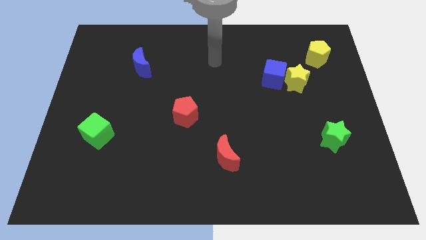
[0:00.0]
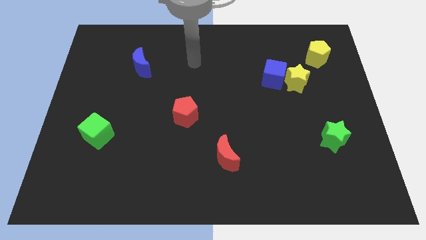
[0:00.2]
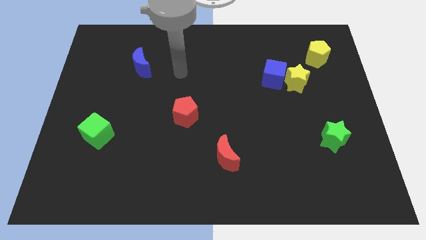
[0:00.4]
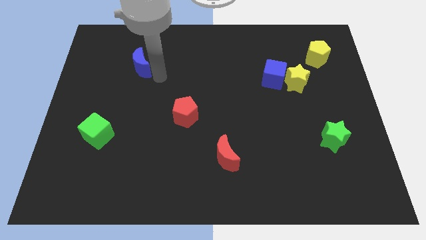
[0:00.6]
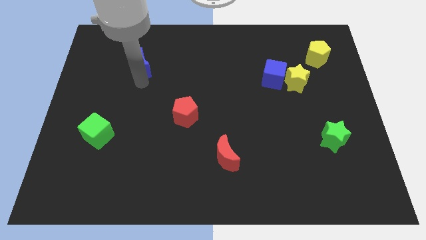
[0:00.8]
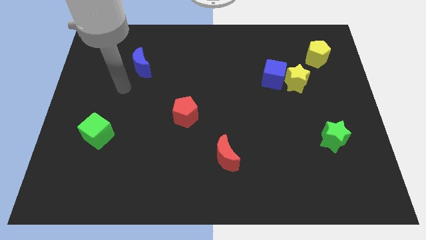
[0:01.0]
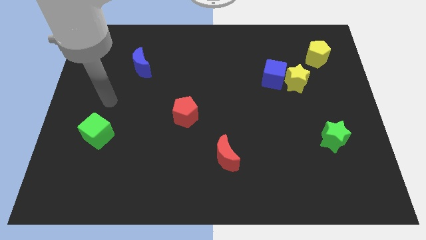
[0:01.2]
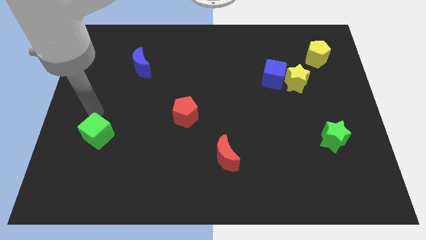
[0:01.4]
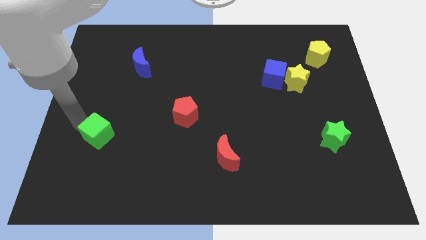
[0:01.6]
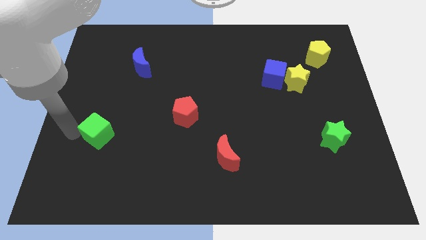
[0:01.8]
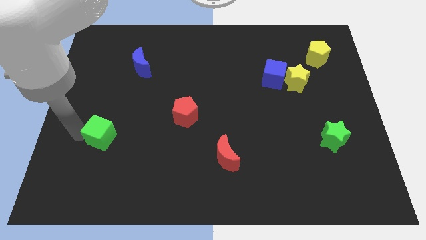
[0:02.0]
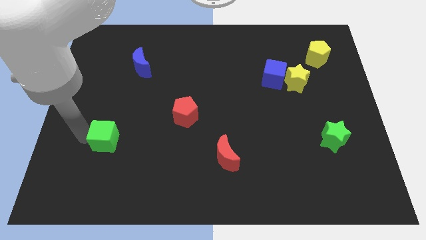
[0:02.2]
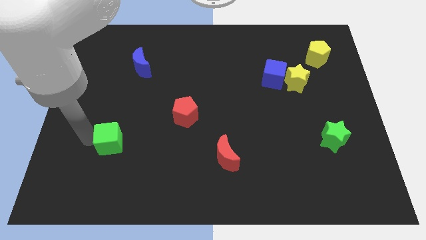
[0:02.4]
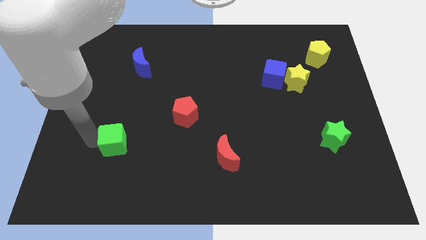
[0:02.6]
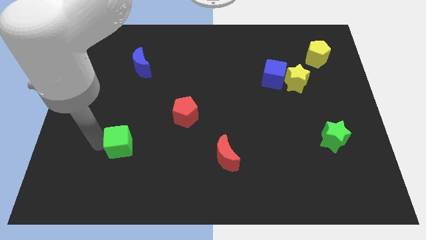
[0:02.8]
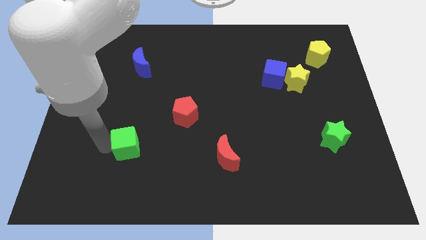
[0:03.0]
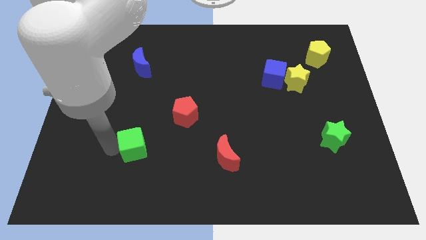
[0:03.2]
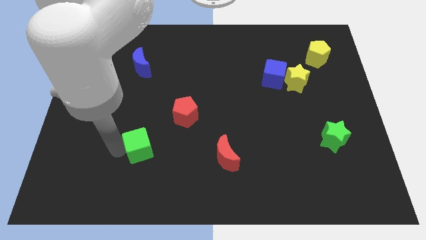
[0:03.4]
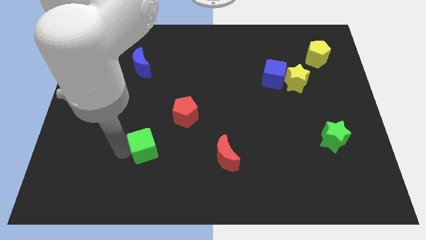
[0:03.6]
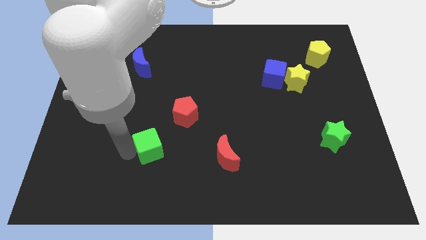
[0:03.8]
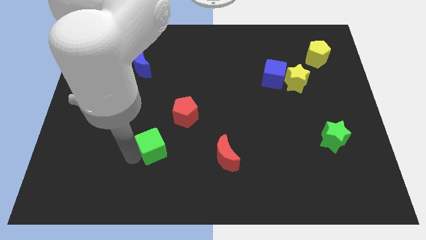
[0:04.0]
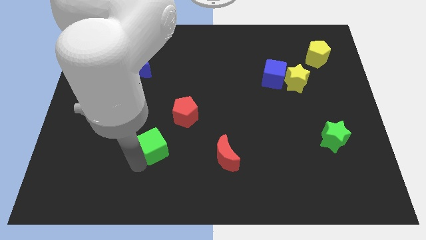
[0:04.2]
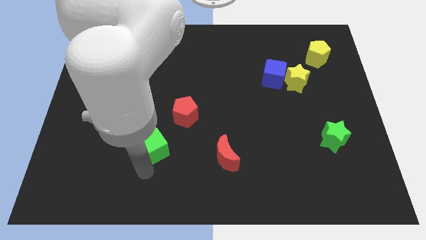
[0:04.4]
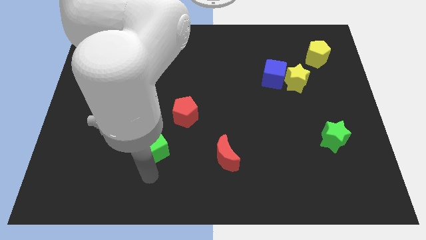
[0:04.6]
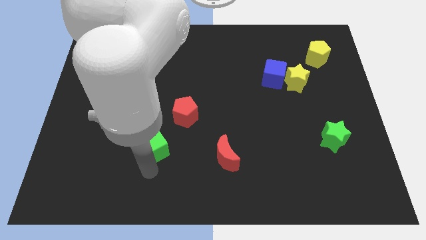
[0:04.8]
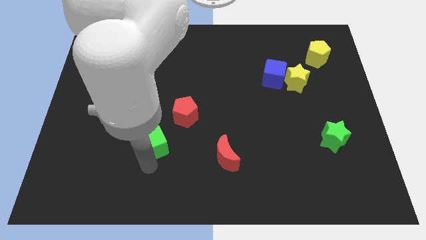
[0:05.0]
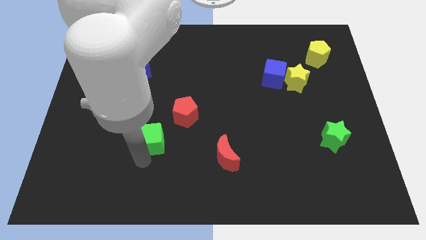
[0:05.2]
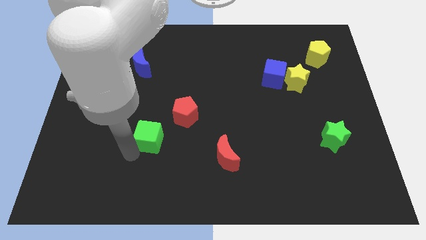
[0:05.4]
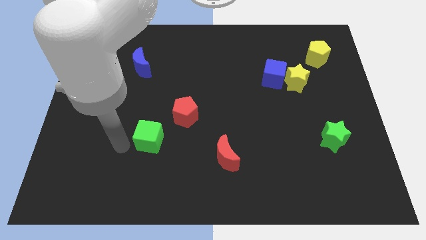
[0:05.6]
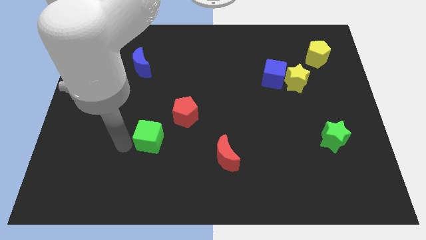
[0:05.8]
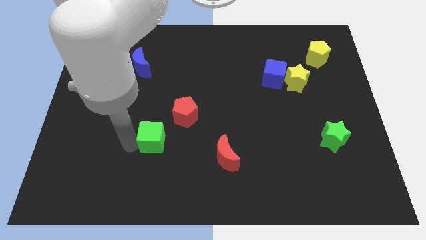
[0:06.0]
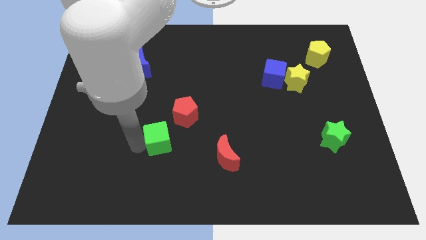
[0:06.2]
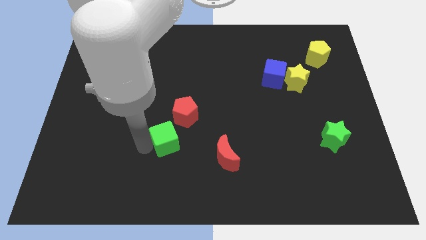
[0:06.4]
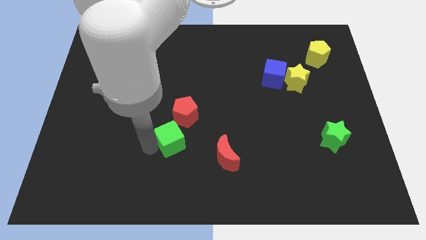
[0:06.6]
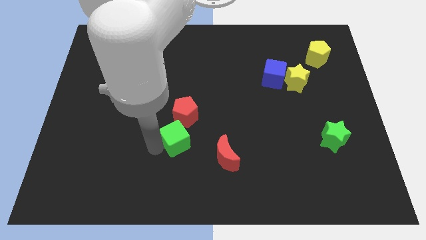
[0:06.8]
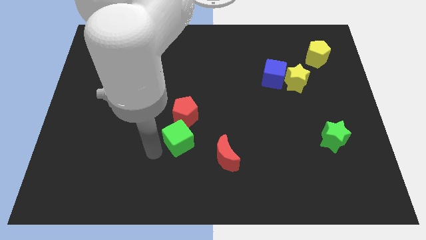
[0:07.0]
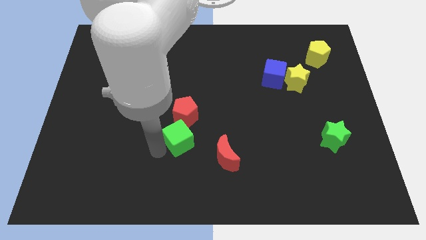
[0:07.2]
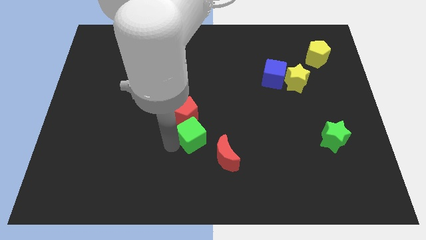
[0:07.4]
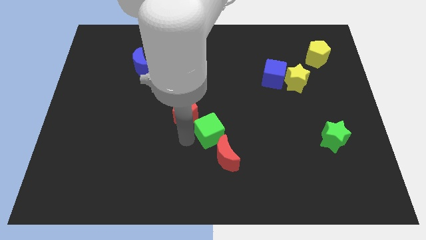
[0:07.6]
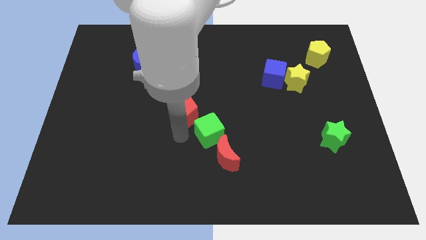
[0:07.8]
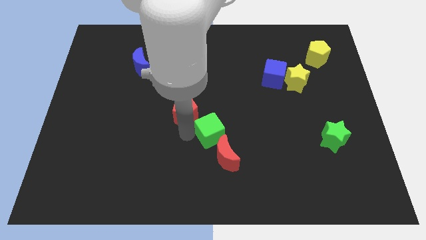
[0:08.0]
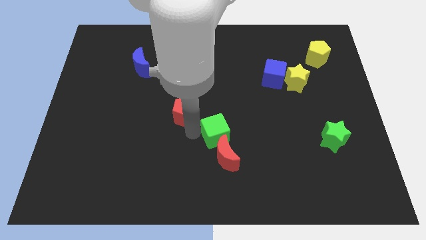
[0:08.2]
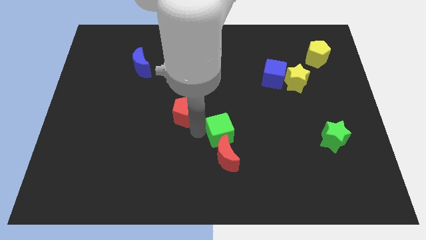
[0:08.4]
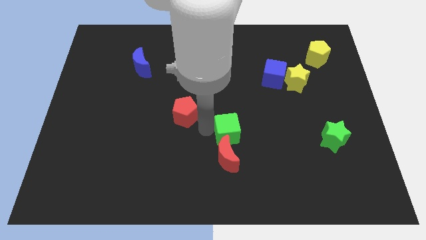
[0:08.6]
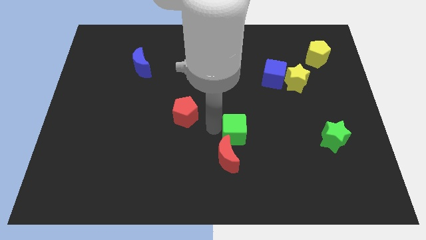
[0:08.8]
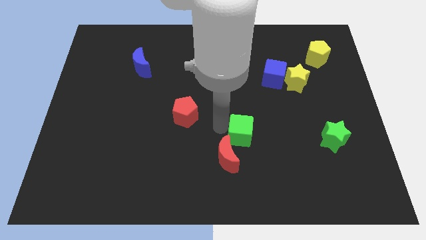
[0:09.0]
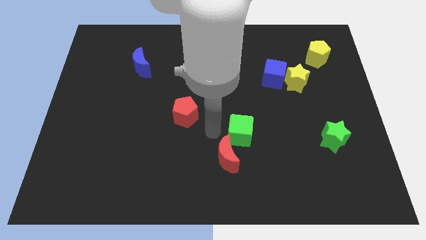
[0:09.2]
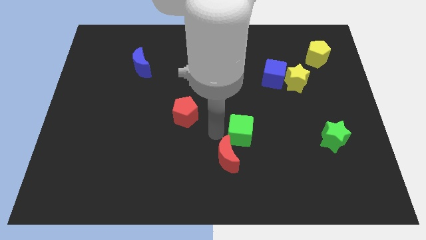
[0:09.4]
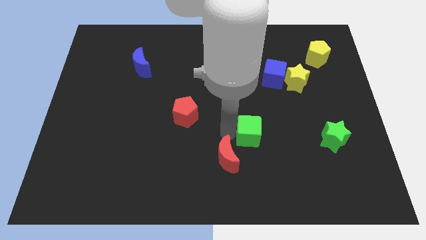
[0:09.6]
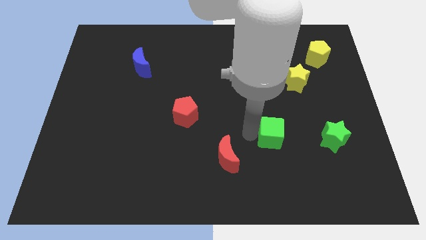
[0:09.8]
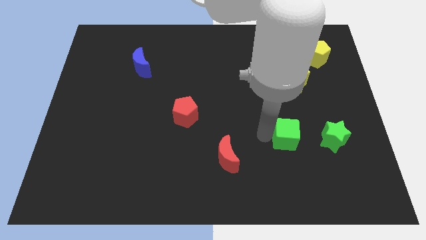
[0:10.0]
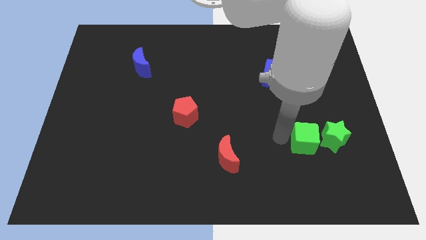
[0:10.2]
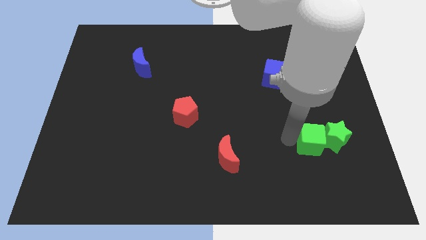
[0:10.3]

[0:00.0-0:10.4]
push the green cube towards the green star

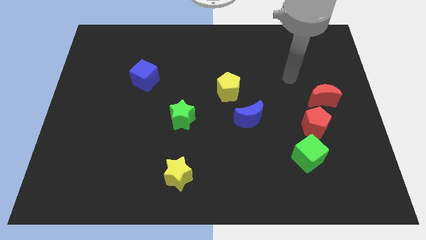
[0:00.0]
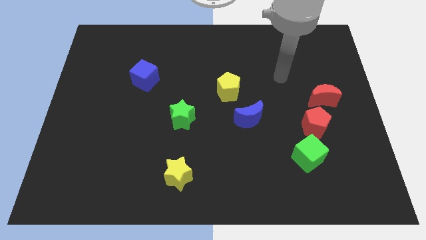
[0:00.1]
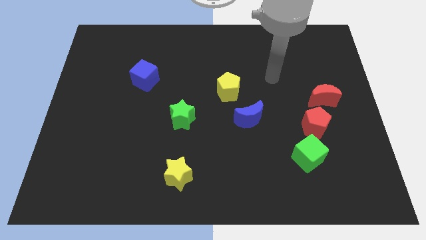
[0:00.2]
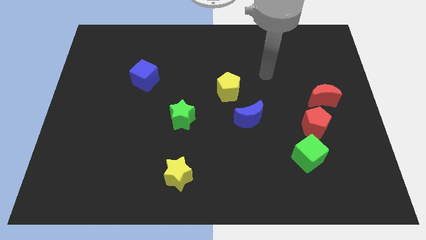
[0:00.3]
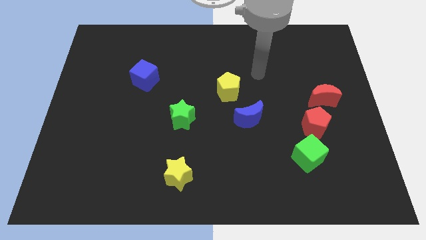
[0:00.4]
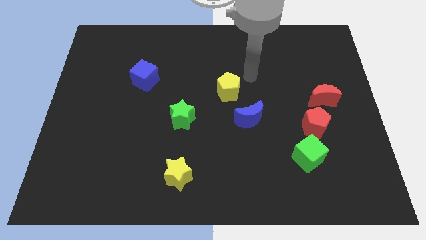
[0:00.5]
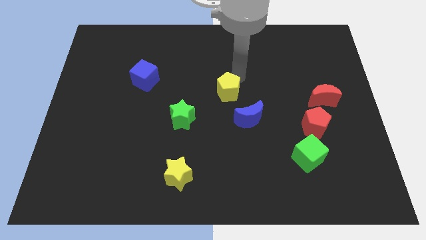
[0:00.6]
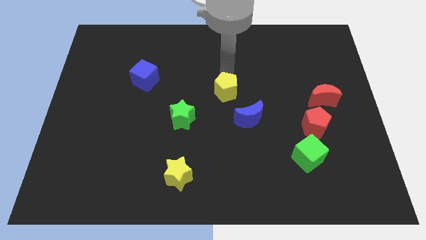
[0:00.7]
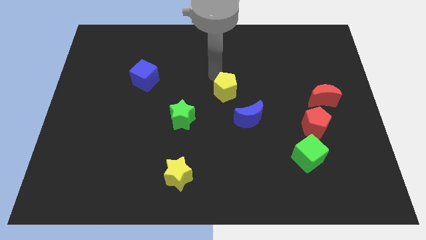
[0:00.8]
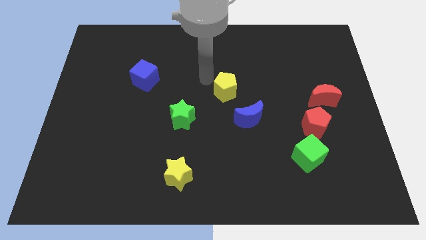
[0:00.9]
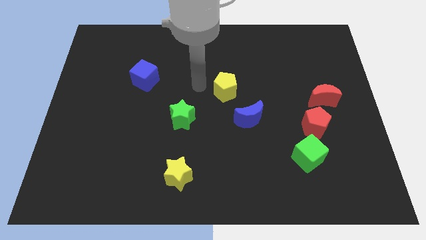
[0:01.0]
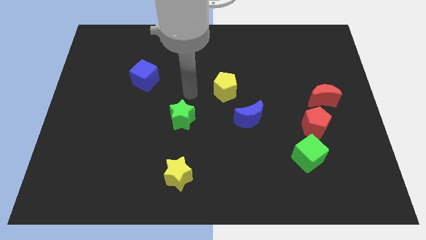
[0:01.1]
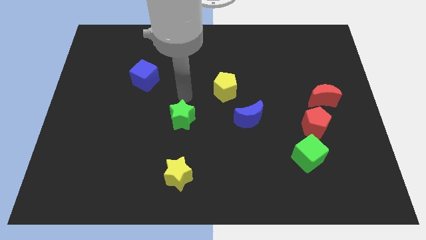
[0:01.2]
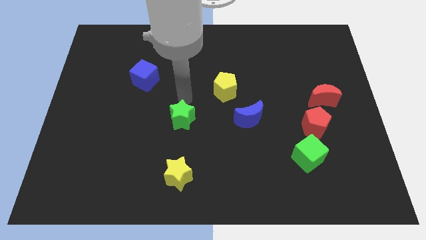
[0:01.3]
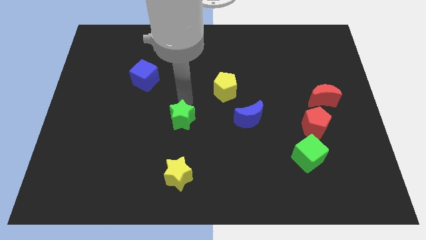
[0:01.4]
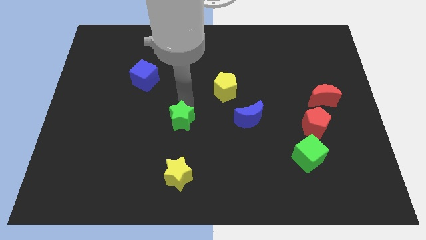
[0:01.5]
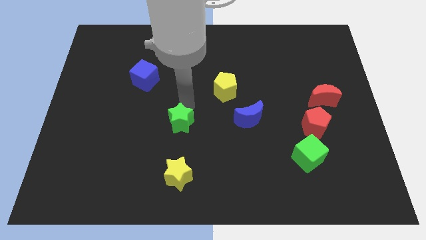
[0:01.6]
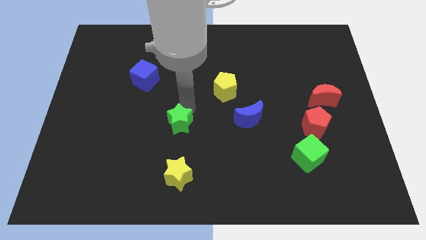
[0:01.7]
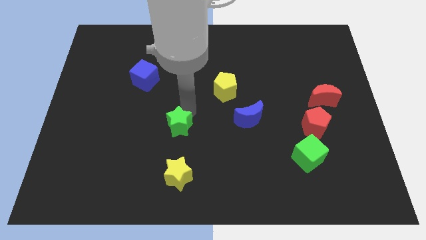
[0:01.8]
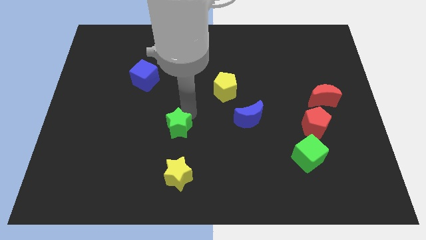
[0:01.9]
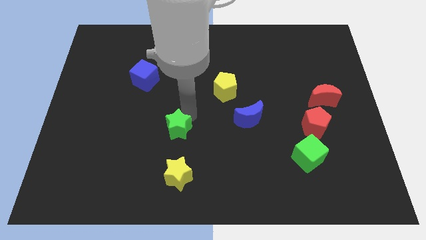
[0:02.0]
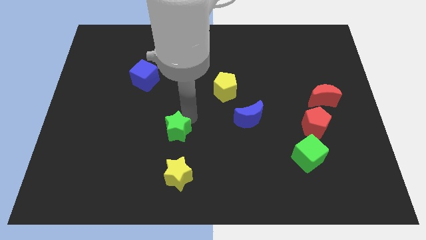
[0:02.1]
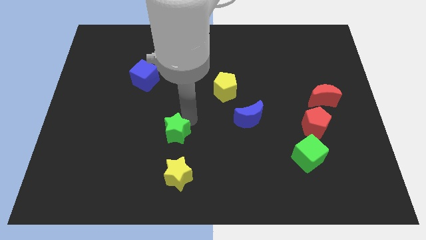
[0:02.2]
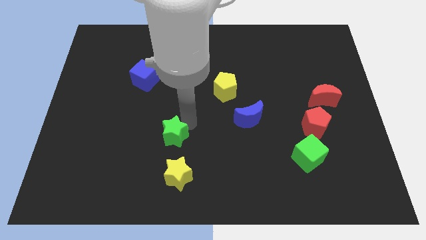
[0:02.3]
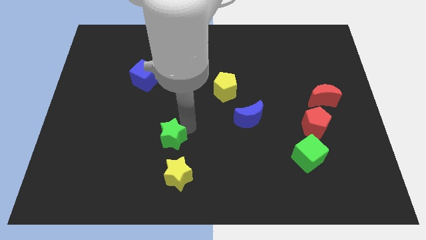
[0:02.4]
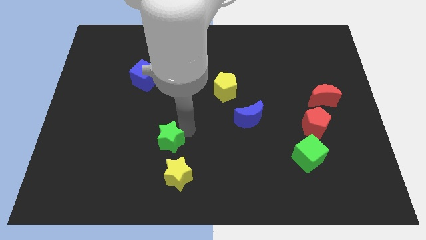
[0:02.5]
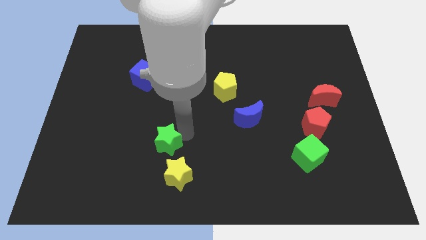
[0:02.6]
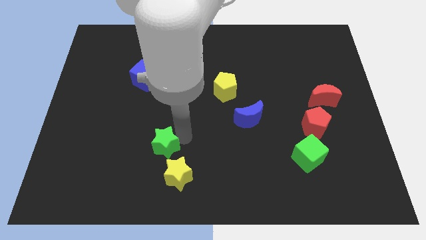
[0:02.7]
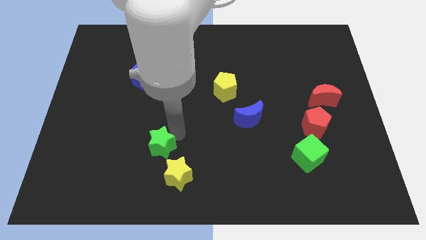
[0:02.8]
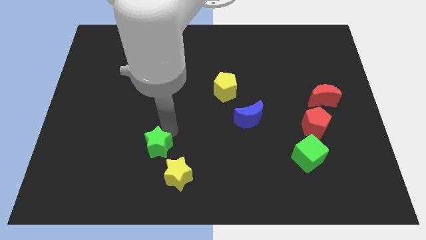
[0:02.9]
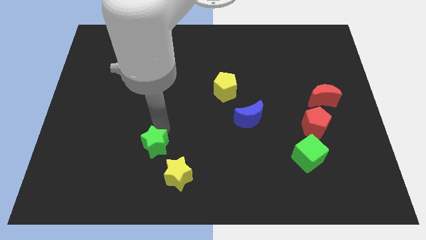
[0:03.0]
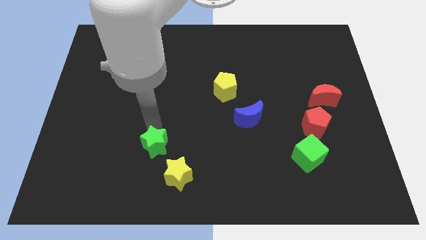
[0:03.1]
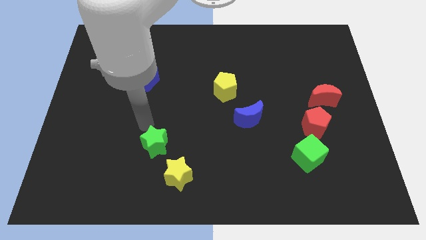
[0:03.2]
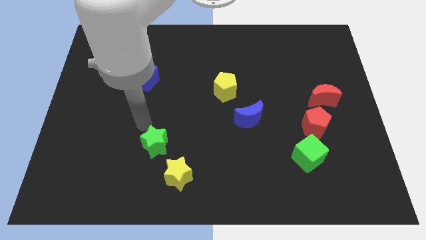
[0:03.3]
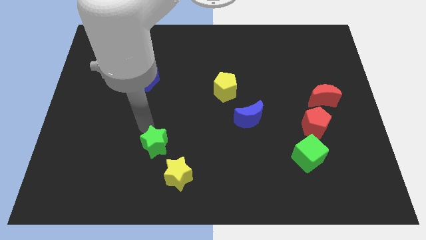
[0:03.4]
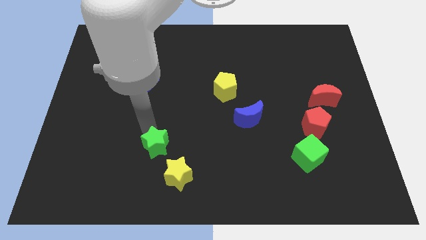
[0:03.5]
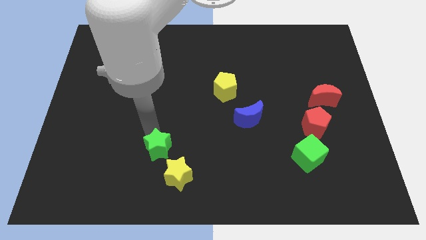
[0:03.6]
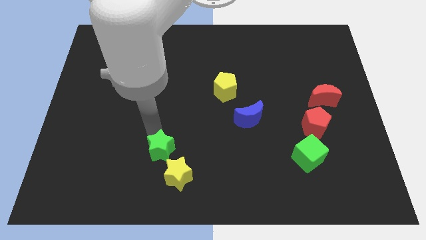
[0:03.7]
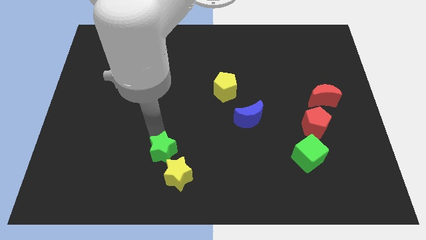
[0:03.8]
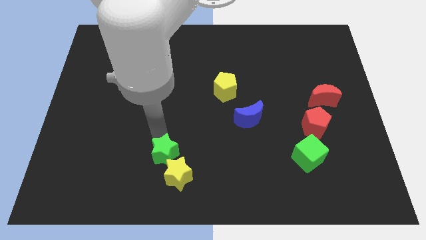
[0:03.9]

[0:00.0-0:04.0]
move the green star towards the yellow star
